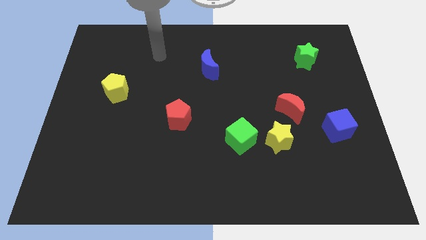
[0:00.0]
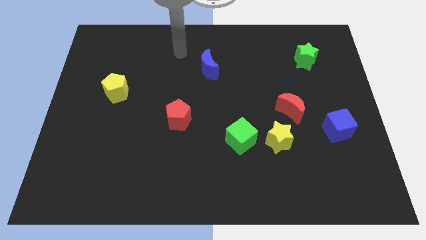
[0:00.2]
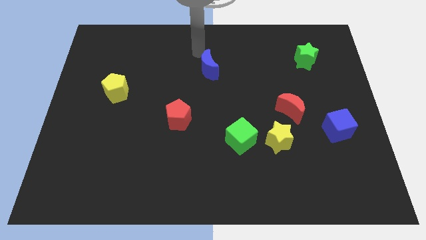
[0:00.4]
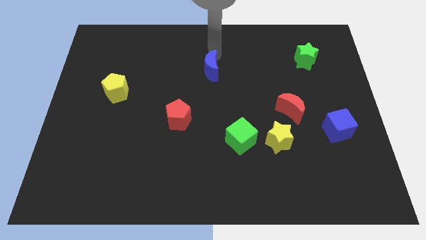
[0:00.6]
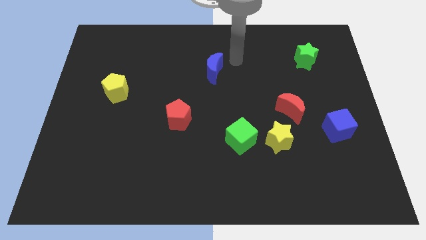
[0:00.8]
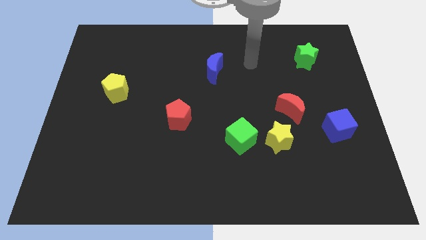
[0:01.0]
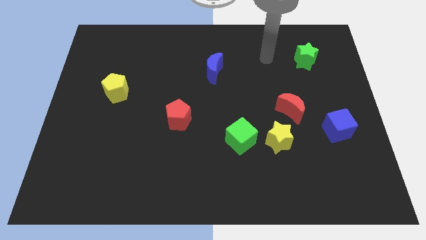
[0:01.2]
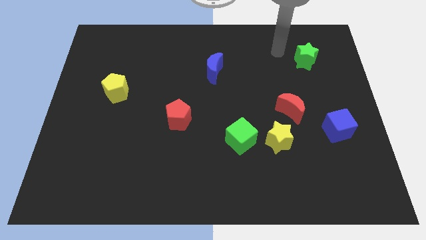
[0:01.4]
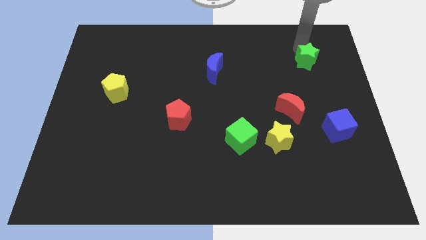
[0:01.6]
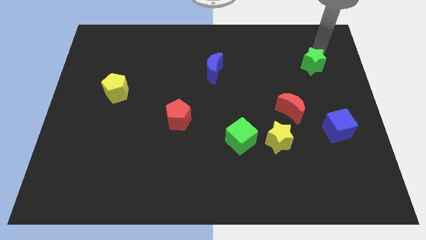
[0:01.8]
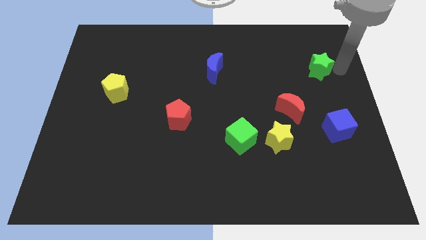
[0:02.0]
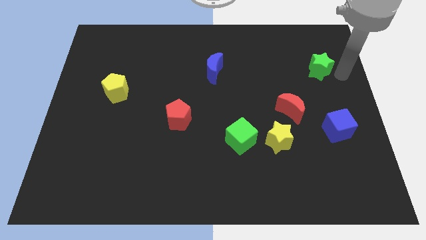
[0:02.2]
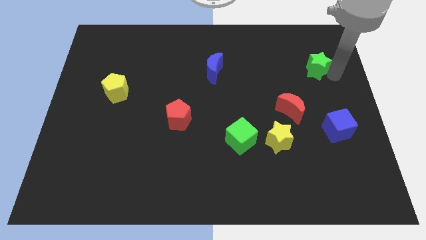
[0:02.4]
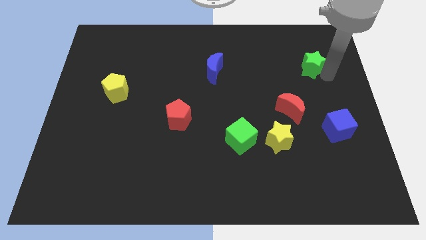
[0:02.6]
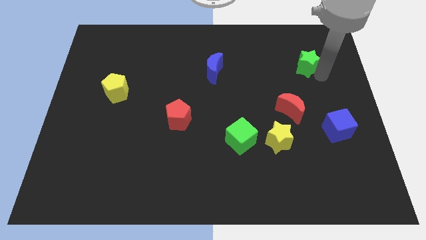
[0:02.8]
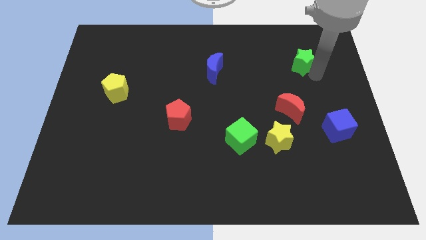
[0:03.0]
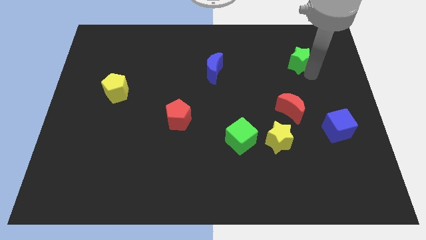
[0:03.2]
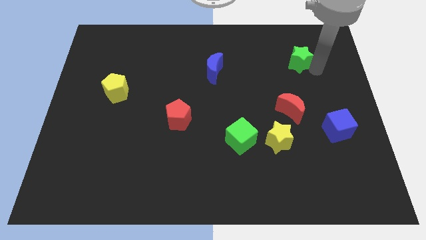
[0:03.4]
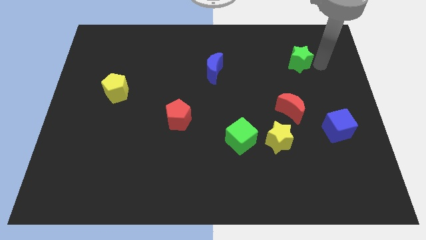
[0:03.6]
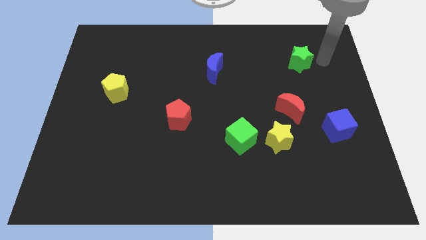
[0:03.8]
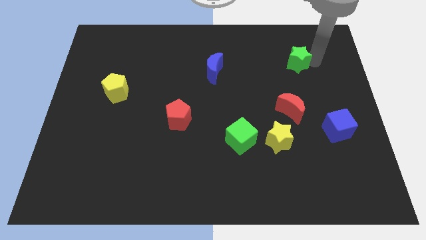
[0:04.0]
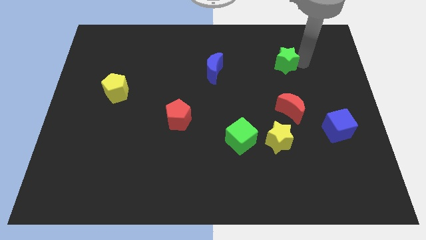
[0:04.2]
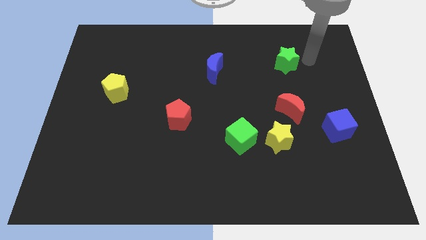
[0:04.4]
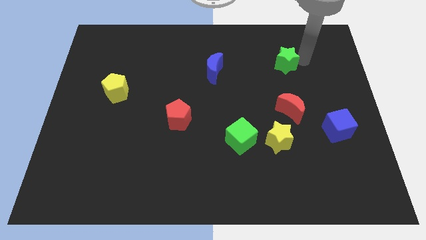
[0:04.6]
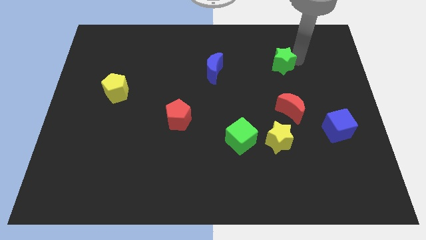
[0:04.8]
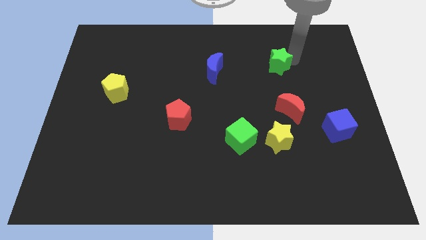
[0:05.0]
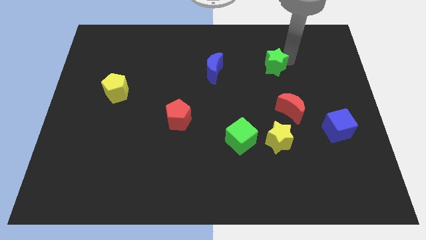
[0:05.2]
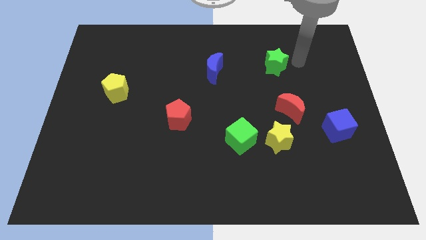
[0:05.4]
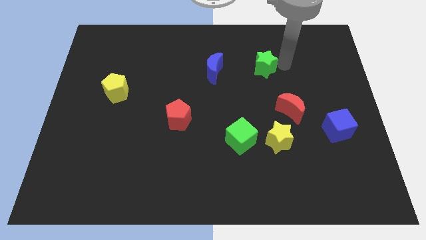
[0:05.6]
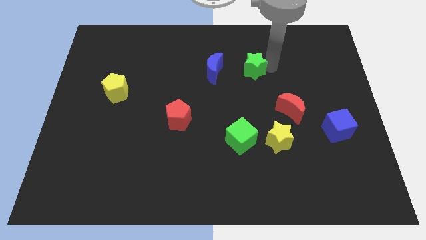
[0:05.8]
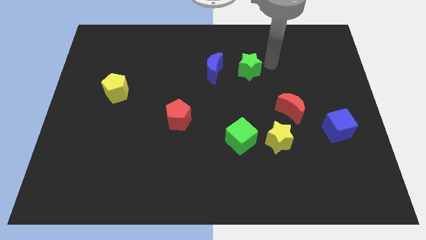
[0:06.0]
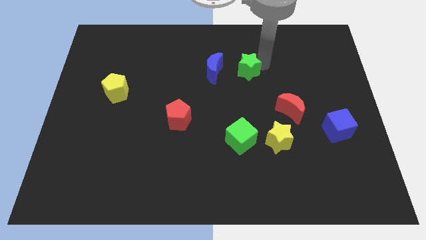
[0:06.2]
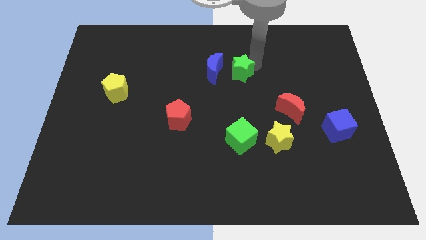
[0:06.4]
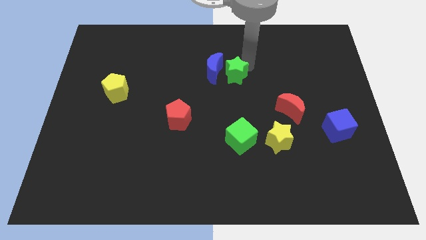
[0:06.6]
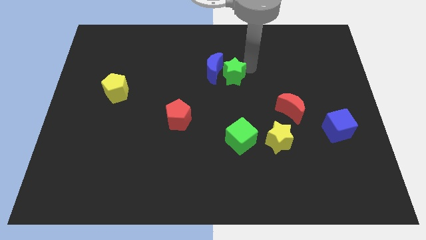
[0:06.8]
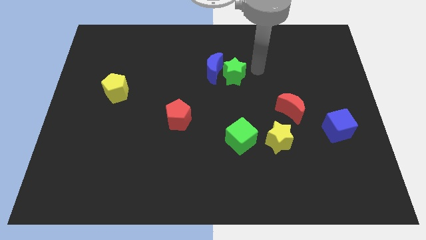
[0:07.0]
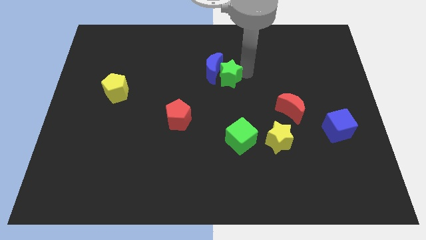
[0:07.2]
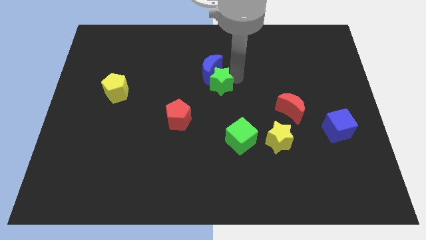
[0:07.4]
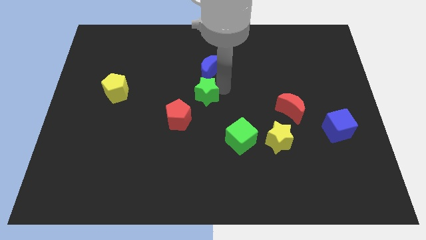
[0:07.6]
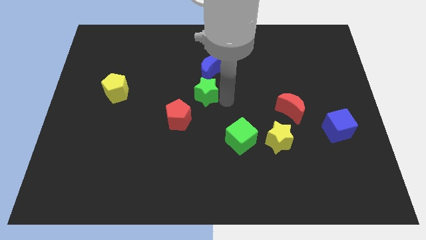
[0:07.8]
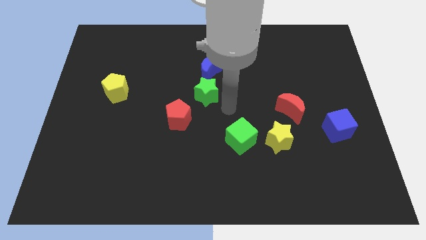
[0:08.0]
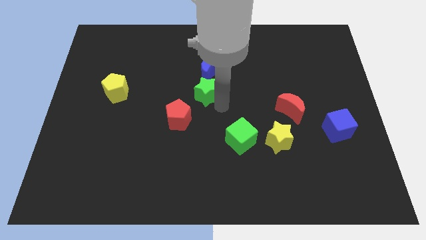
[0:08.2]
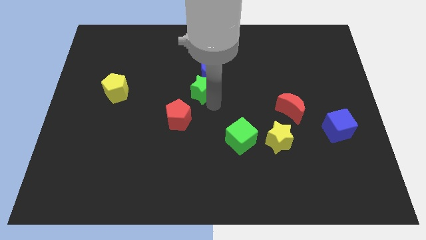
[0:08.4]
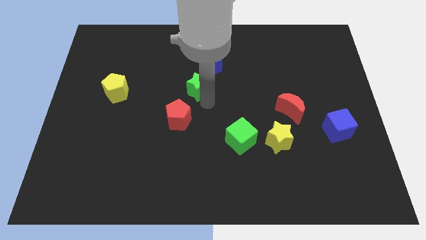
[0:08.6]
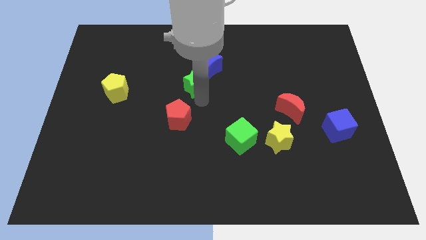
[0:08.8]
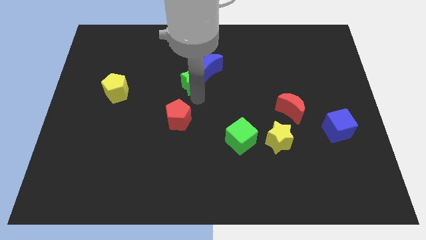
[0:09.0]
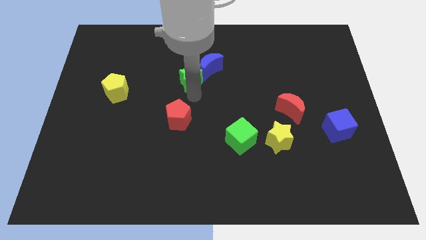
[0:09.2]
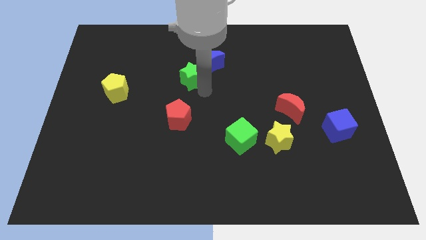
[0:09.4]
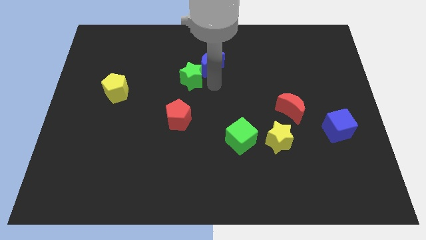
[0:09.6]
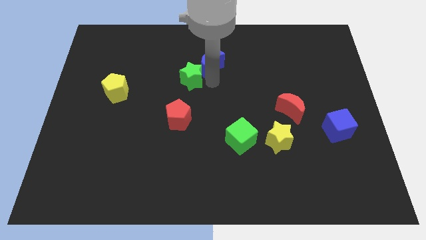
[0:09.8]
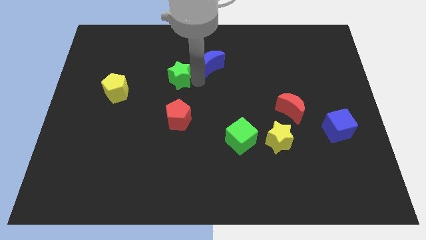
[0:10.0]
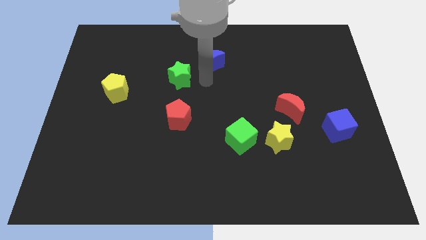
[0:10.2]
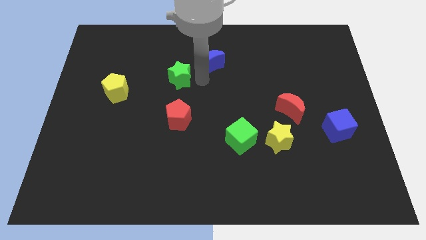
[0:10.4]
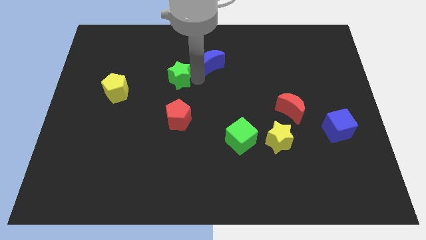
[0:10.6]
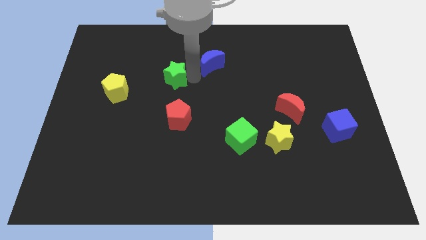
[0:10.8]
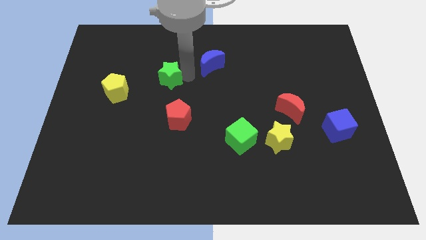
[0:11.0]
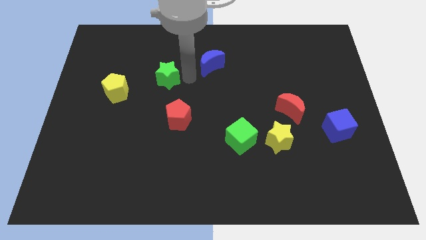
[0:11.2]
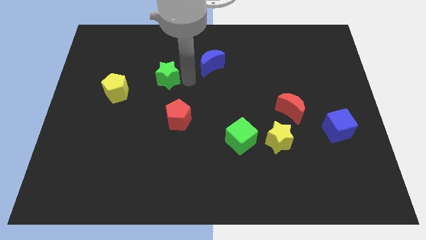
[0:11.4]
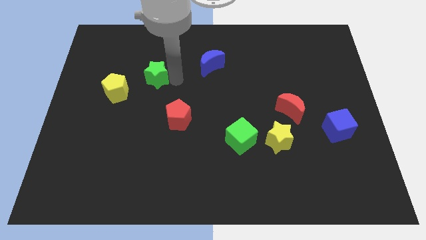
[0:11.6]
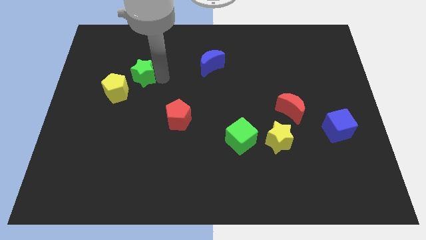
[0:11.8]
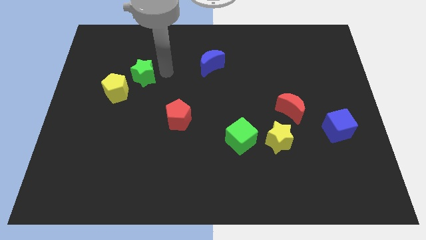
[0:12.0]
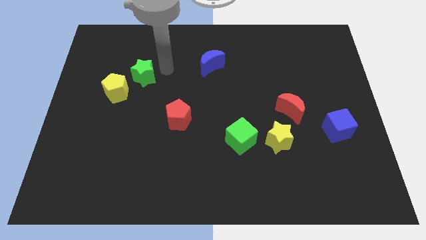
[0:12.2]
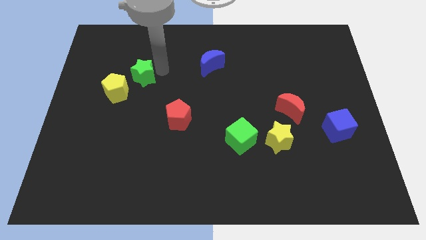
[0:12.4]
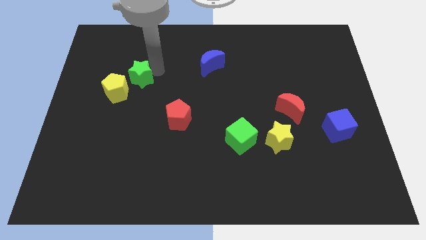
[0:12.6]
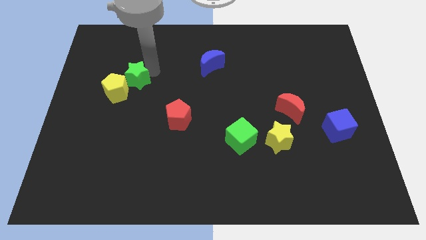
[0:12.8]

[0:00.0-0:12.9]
slide the green star close to the yellow pentagon

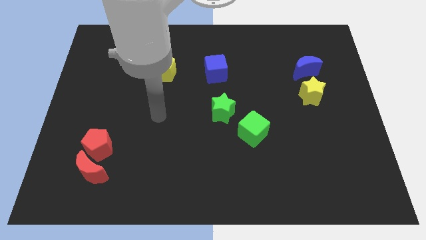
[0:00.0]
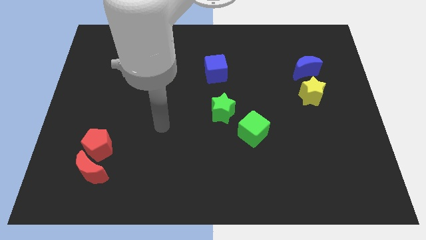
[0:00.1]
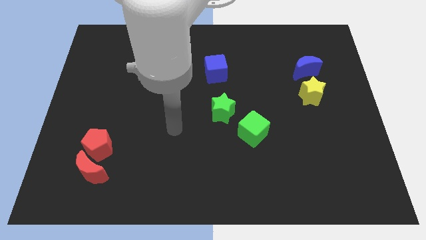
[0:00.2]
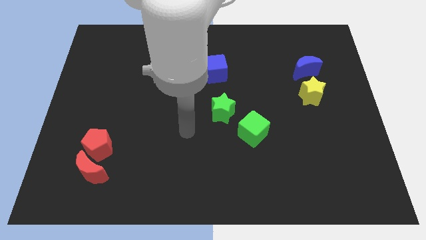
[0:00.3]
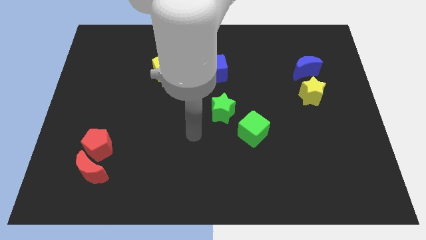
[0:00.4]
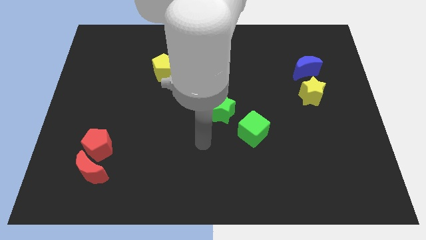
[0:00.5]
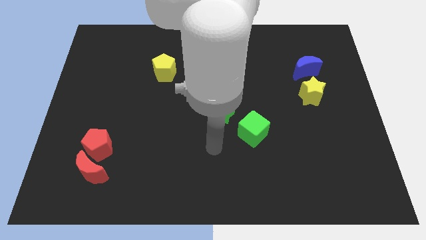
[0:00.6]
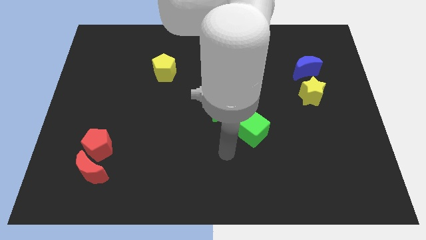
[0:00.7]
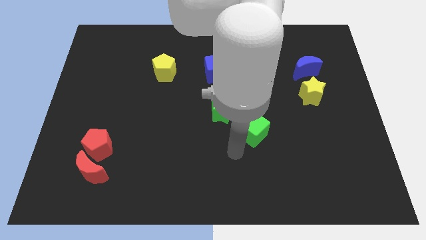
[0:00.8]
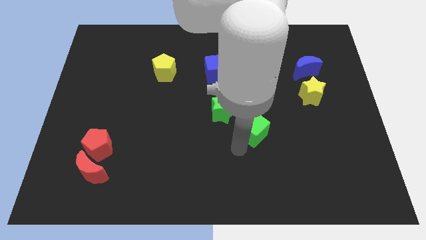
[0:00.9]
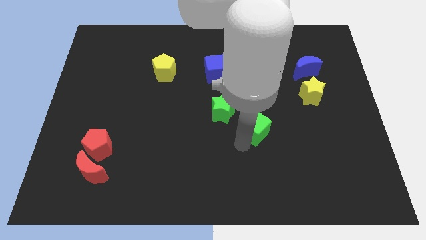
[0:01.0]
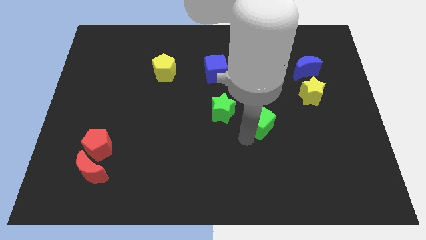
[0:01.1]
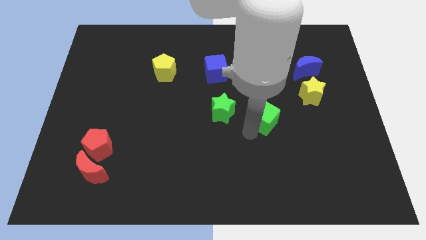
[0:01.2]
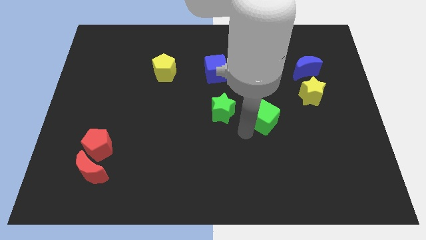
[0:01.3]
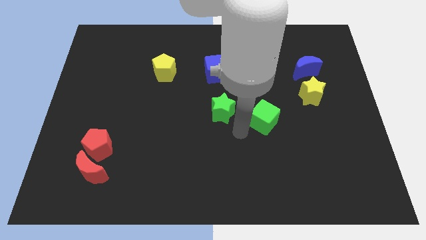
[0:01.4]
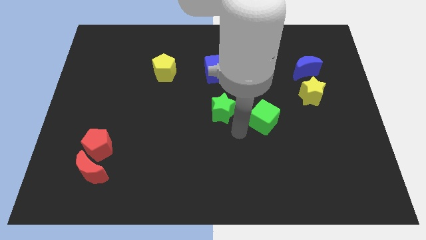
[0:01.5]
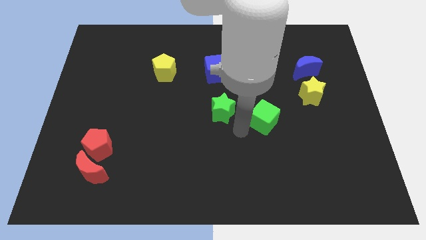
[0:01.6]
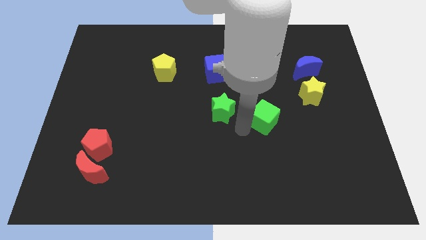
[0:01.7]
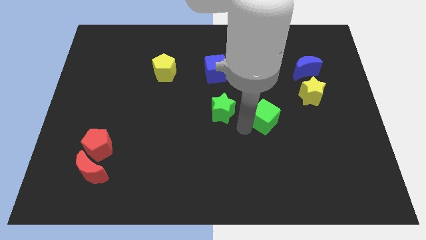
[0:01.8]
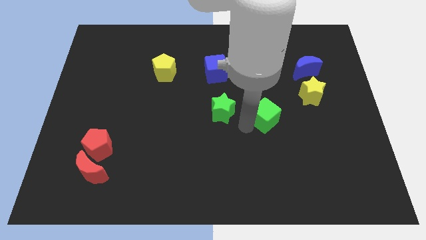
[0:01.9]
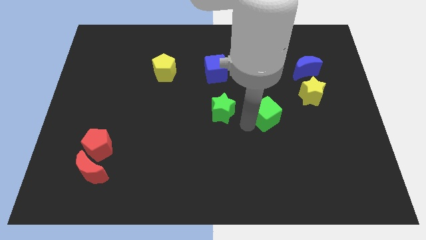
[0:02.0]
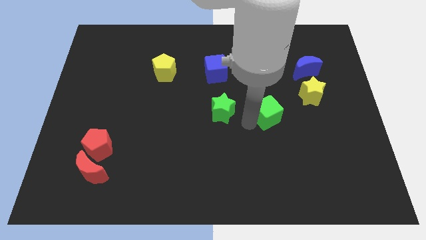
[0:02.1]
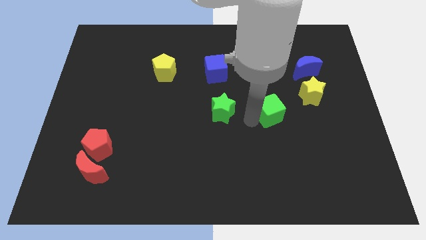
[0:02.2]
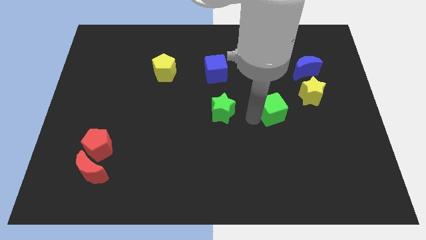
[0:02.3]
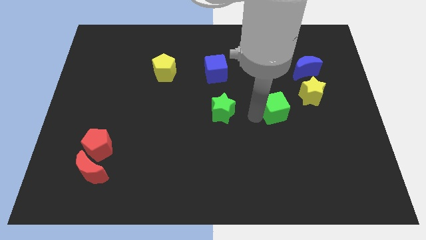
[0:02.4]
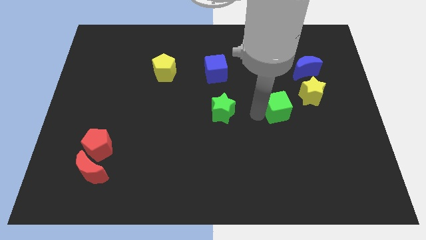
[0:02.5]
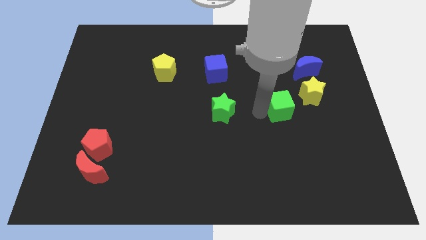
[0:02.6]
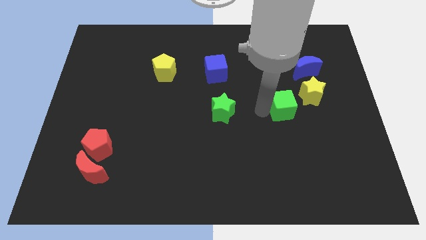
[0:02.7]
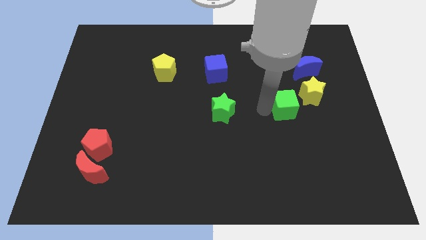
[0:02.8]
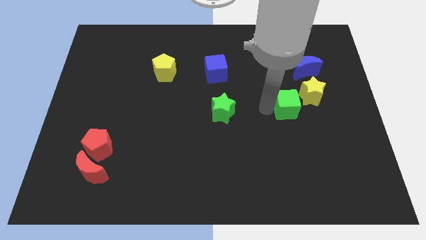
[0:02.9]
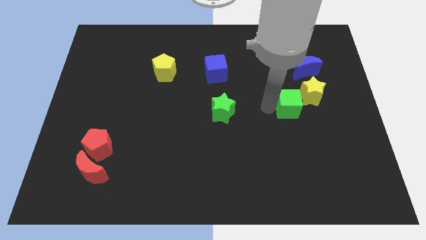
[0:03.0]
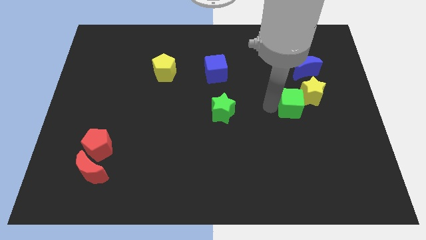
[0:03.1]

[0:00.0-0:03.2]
put the green cube next to the yellow star
